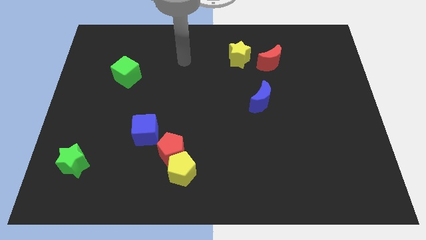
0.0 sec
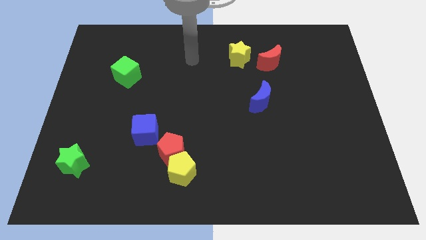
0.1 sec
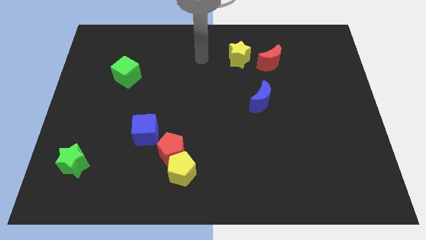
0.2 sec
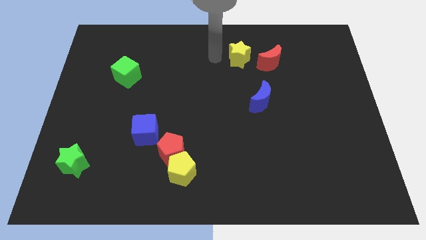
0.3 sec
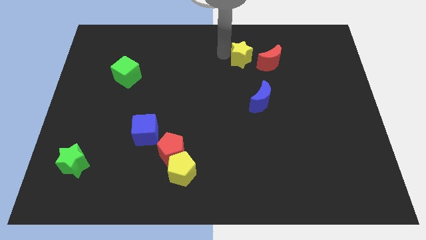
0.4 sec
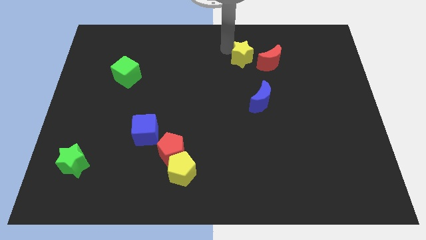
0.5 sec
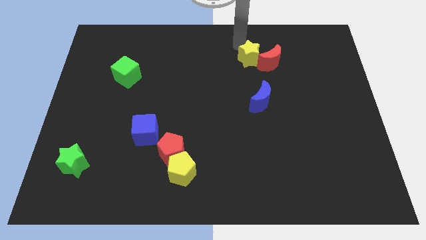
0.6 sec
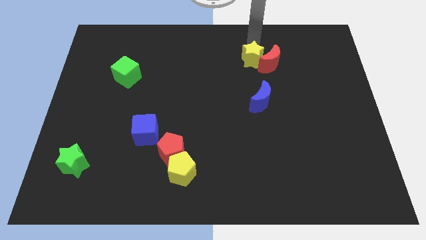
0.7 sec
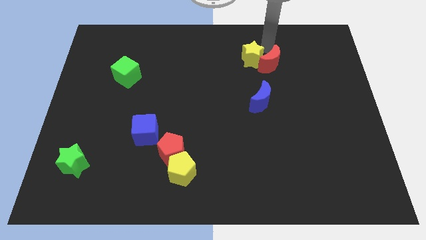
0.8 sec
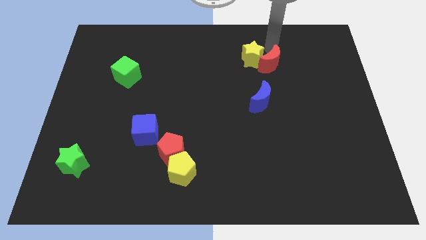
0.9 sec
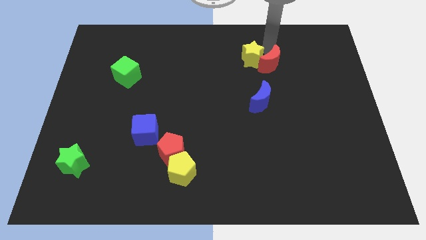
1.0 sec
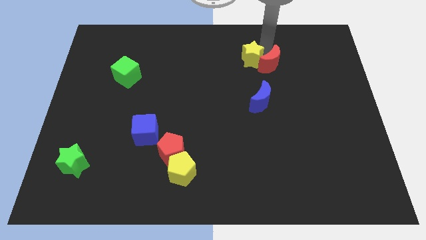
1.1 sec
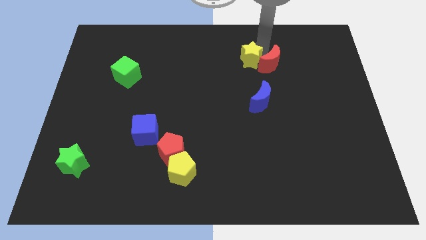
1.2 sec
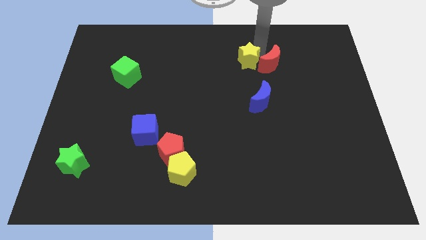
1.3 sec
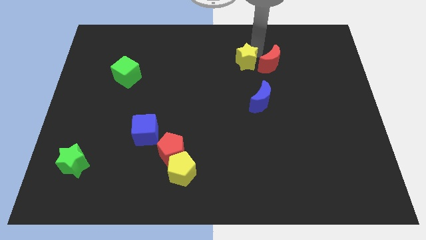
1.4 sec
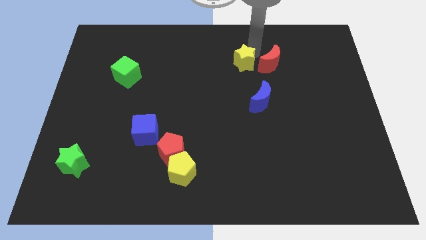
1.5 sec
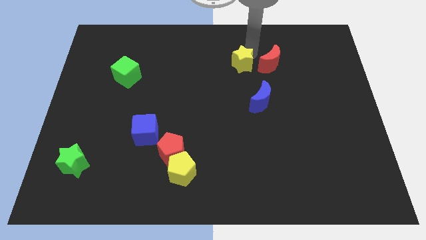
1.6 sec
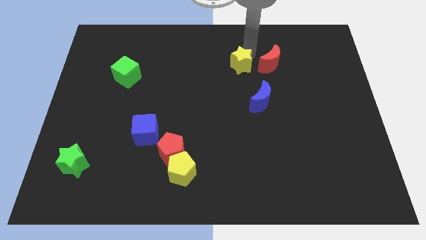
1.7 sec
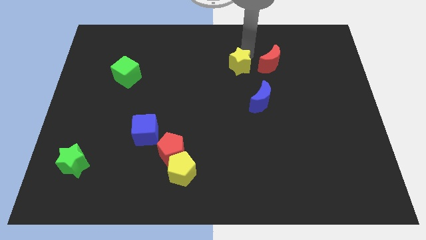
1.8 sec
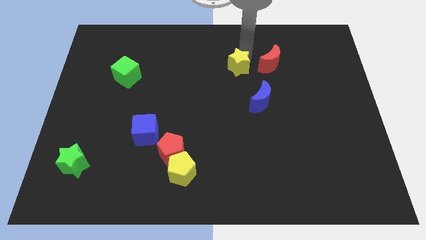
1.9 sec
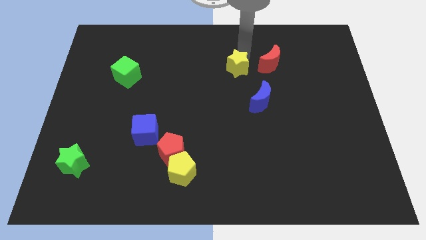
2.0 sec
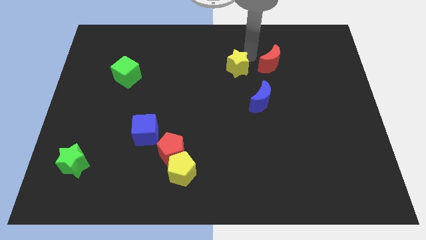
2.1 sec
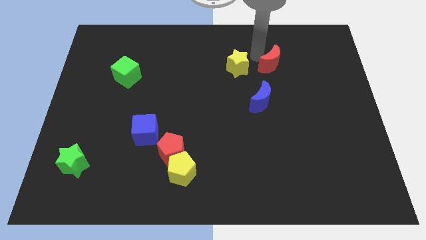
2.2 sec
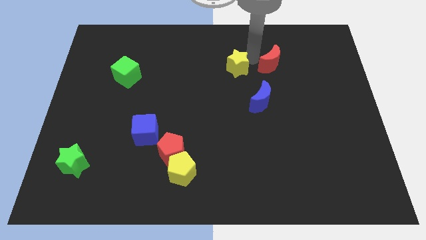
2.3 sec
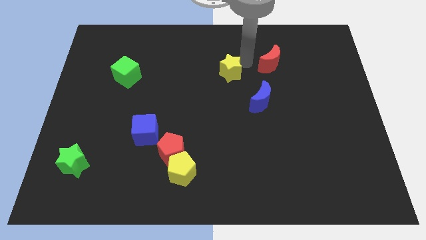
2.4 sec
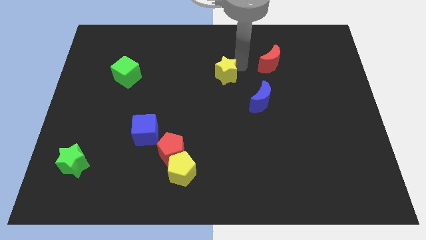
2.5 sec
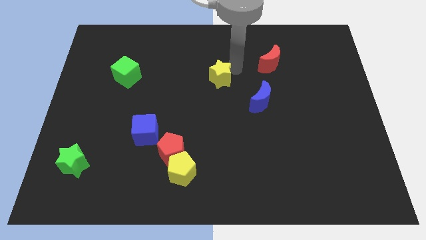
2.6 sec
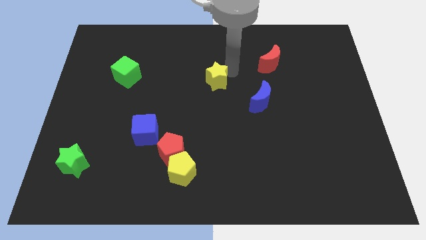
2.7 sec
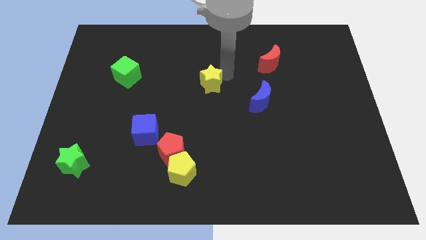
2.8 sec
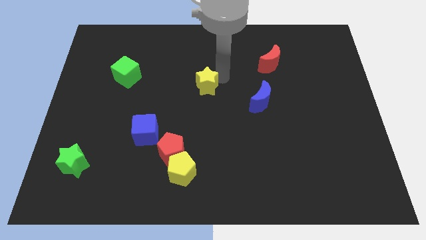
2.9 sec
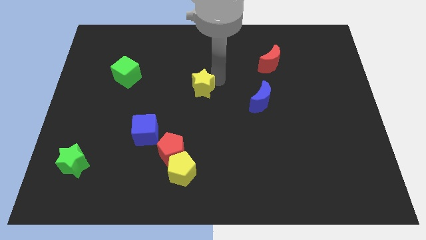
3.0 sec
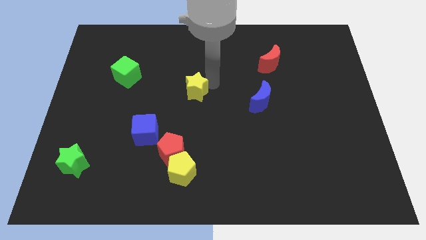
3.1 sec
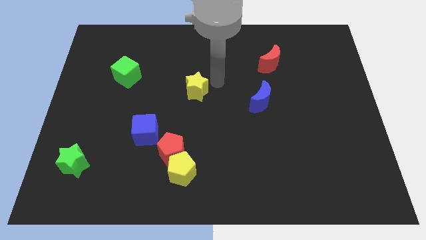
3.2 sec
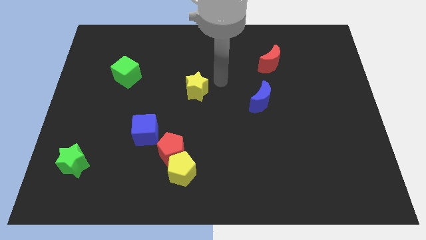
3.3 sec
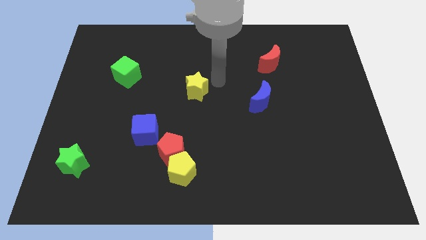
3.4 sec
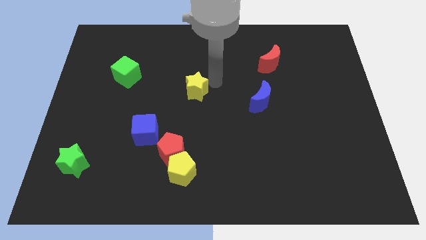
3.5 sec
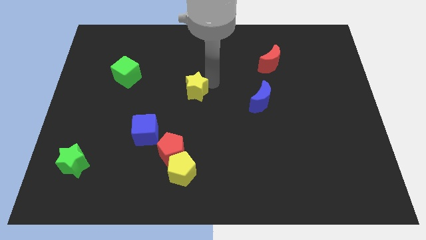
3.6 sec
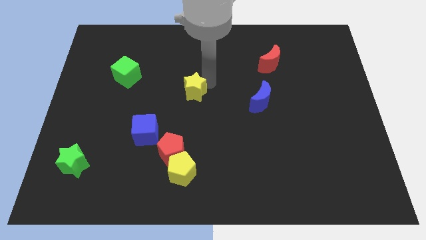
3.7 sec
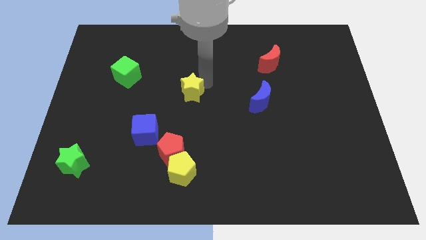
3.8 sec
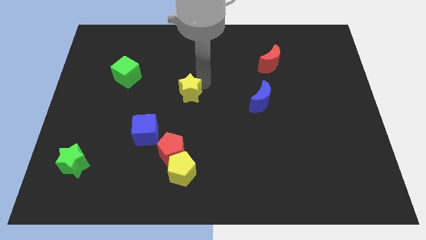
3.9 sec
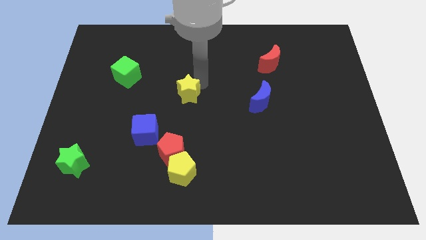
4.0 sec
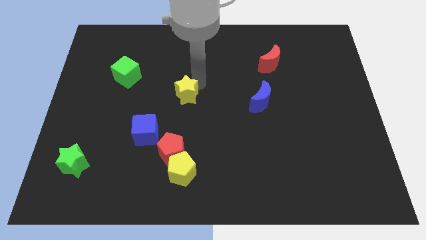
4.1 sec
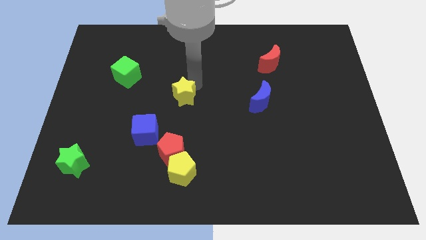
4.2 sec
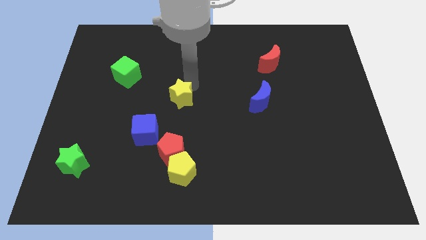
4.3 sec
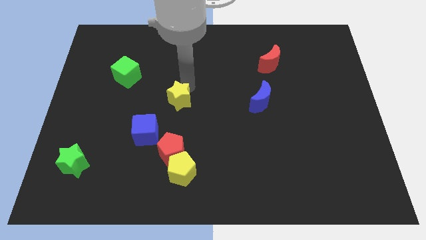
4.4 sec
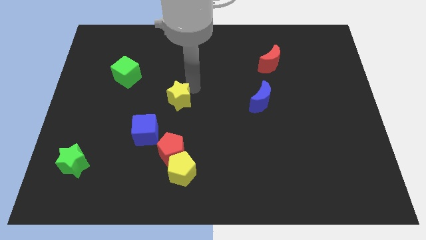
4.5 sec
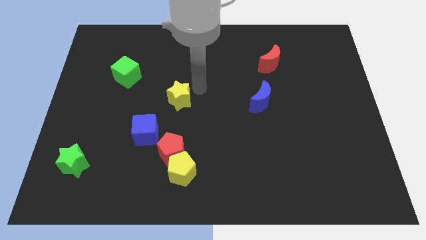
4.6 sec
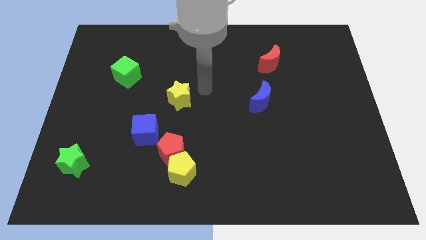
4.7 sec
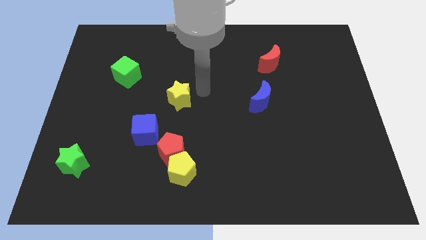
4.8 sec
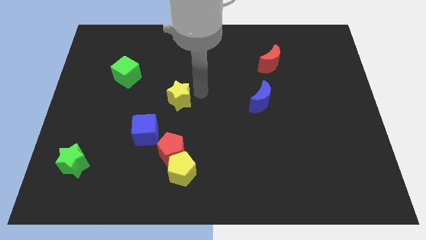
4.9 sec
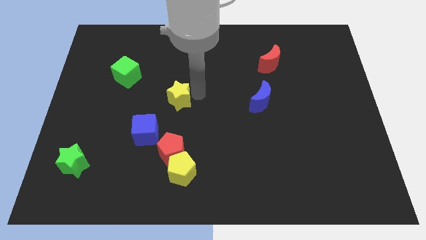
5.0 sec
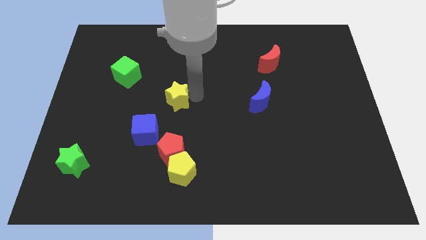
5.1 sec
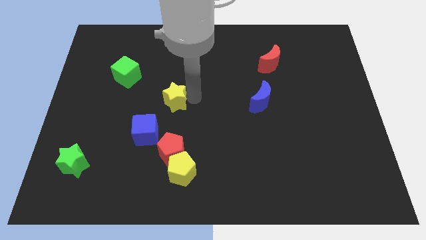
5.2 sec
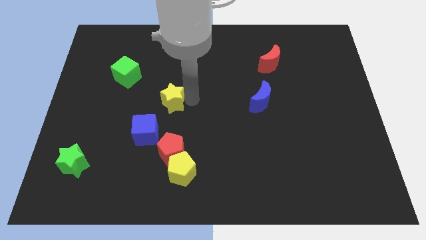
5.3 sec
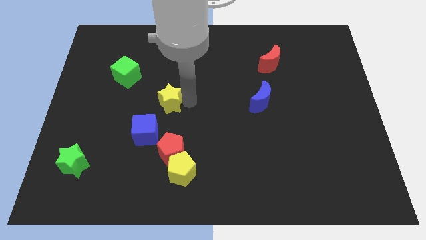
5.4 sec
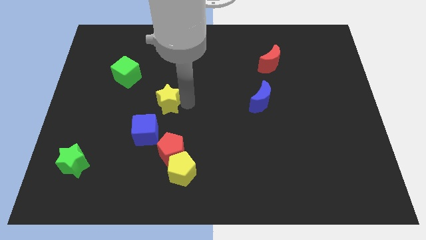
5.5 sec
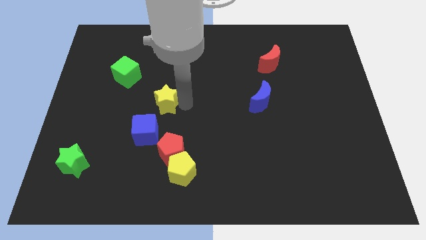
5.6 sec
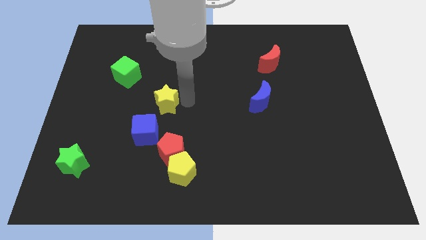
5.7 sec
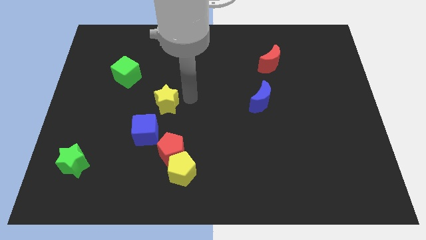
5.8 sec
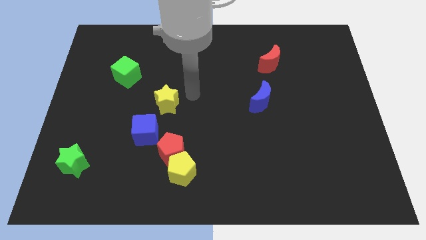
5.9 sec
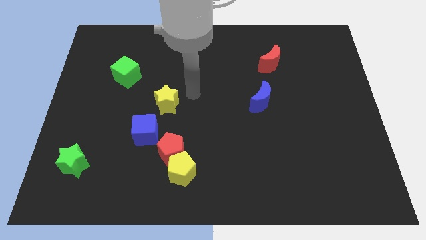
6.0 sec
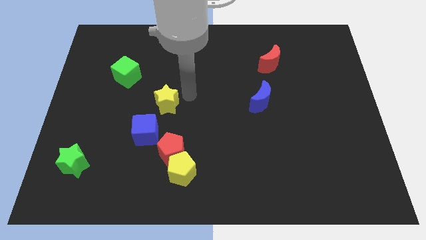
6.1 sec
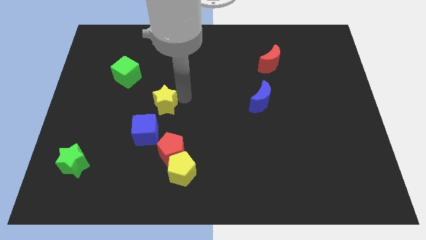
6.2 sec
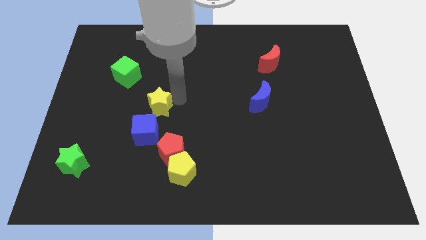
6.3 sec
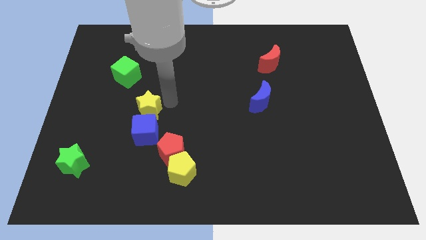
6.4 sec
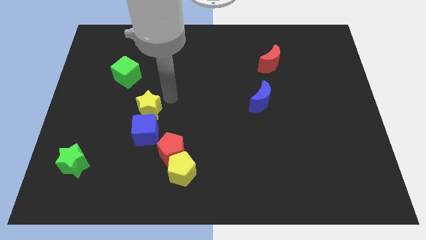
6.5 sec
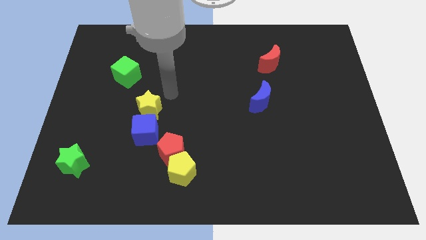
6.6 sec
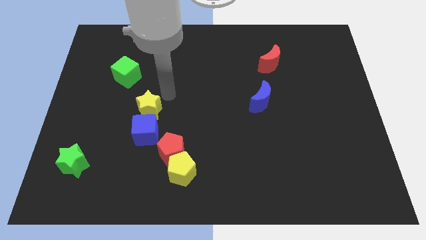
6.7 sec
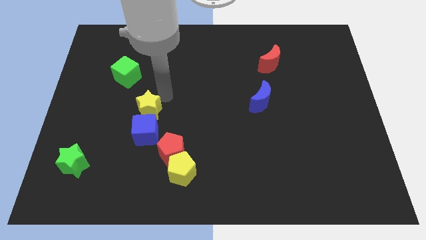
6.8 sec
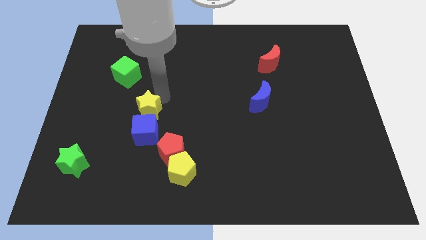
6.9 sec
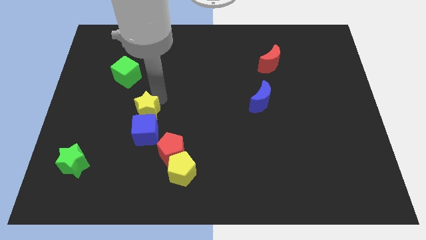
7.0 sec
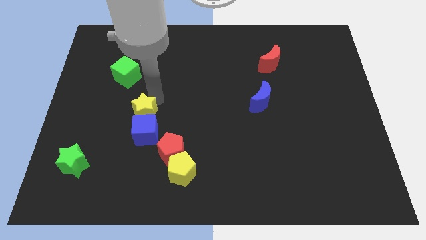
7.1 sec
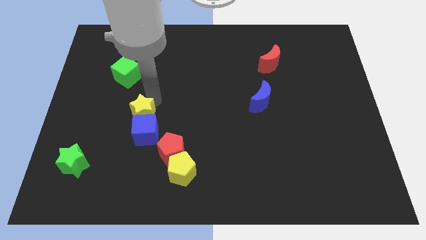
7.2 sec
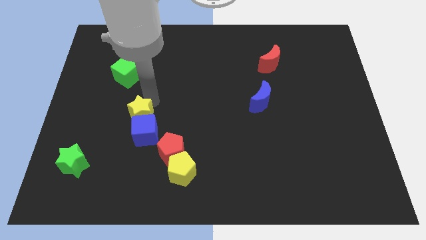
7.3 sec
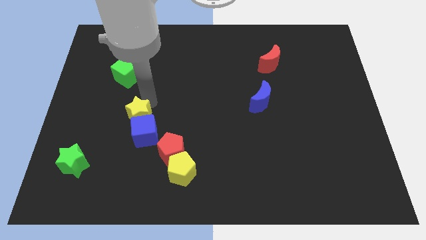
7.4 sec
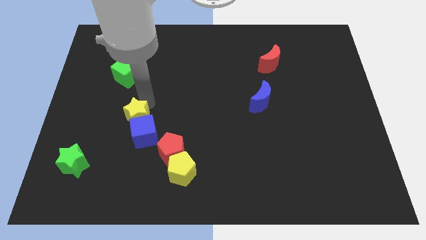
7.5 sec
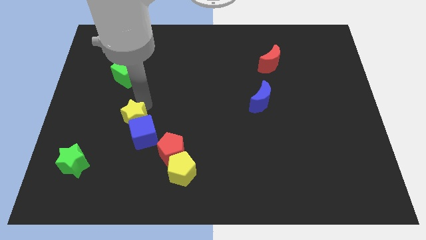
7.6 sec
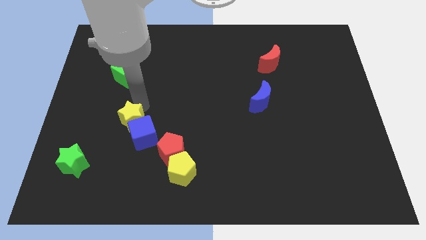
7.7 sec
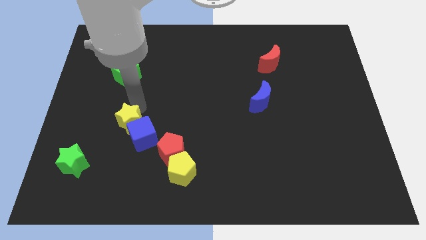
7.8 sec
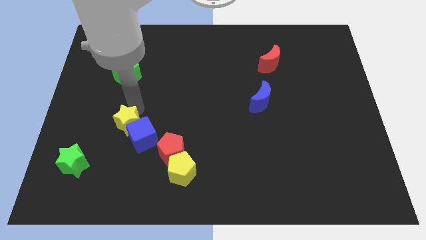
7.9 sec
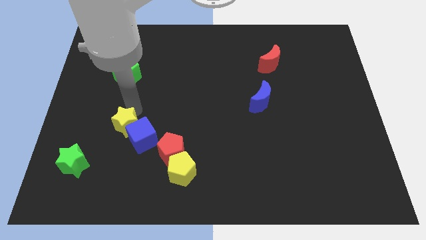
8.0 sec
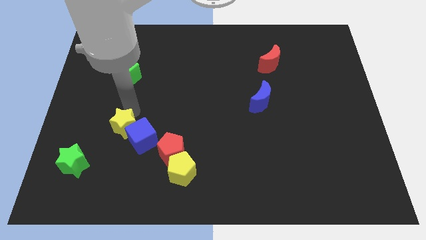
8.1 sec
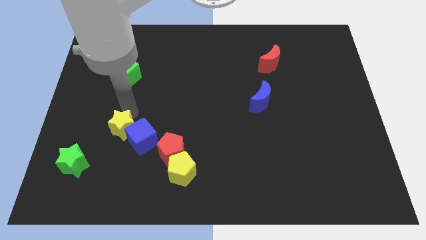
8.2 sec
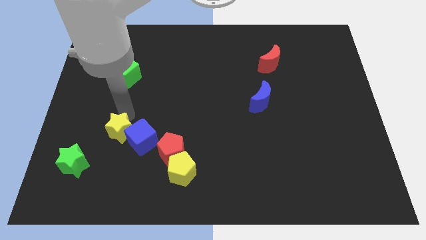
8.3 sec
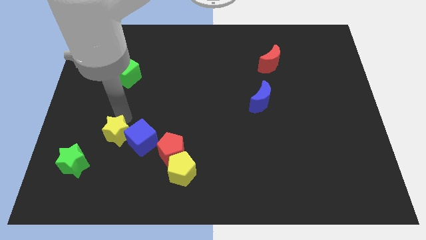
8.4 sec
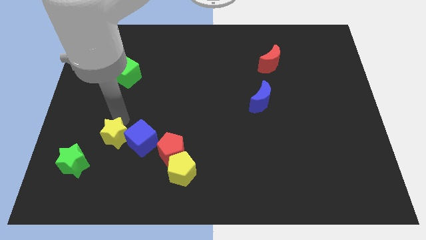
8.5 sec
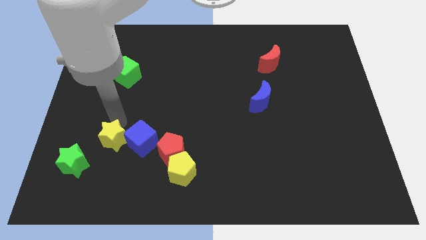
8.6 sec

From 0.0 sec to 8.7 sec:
slide the yellow star to the bottom left of the blue cube
